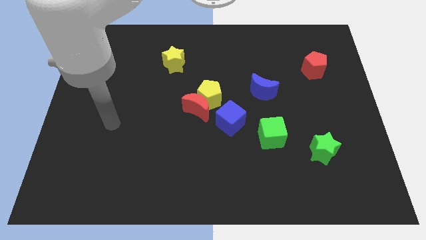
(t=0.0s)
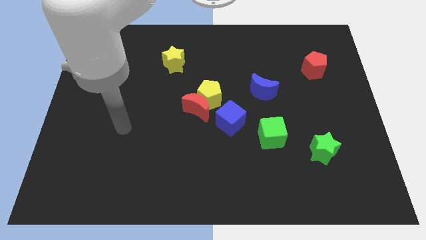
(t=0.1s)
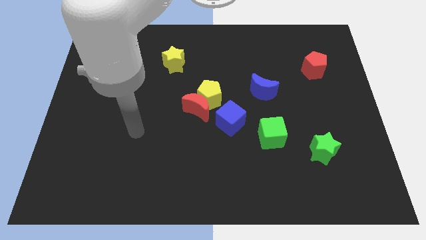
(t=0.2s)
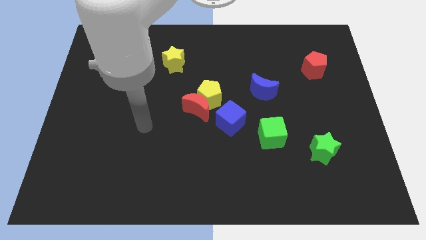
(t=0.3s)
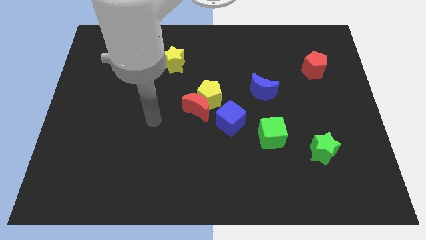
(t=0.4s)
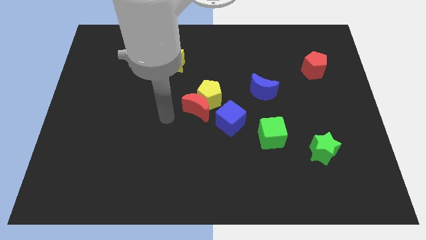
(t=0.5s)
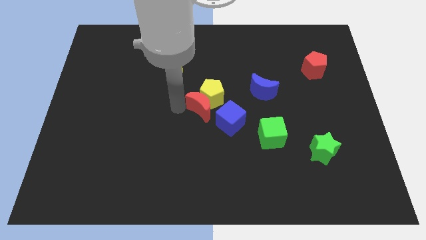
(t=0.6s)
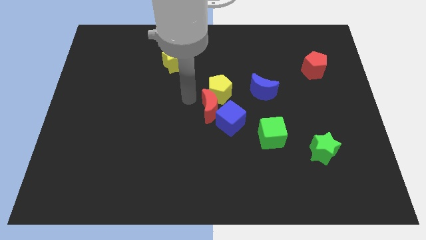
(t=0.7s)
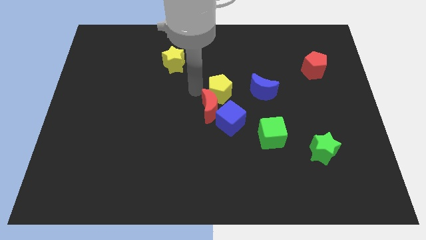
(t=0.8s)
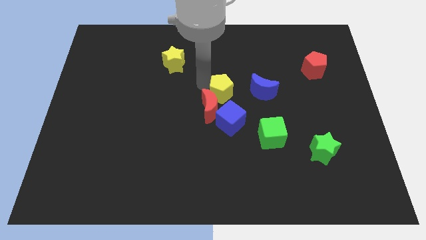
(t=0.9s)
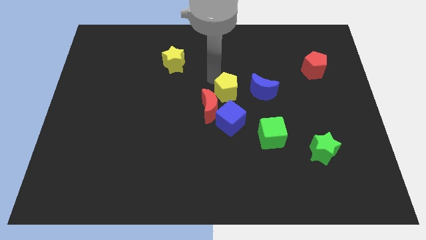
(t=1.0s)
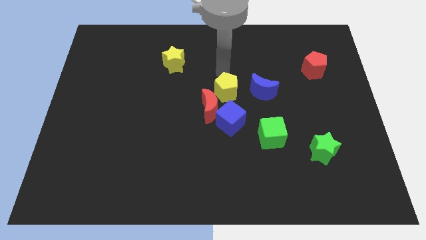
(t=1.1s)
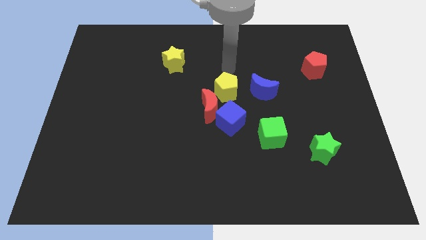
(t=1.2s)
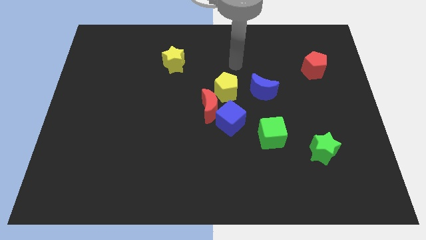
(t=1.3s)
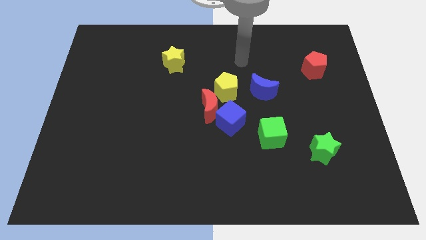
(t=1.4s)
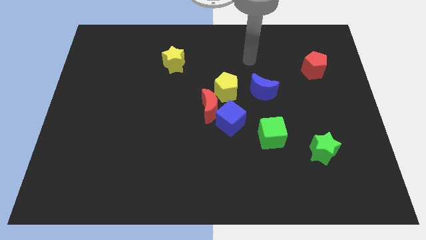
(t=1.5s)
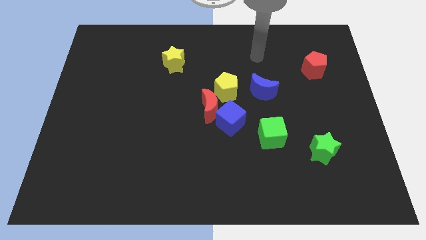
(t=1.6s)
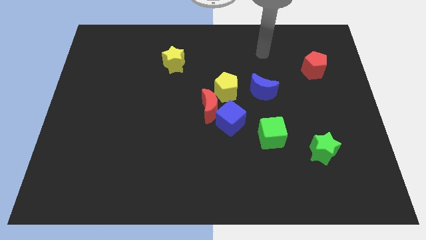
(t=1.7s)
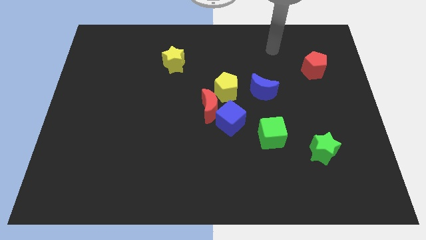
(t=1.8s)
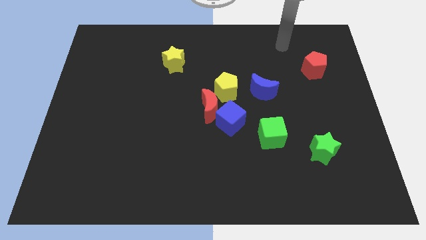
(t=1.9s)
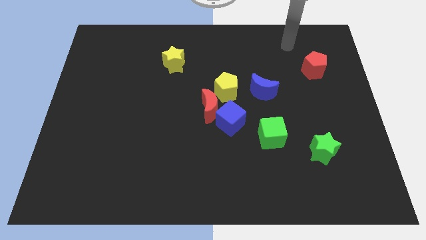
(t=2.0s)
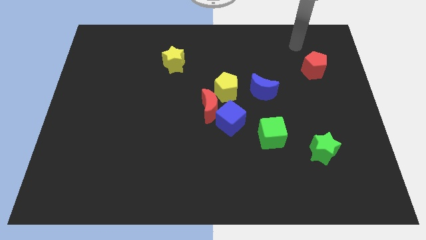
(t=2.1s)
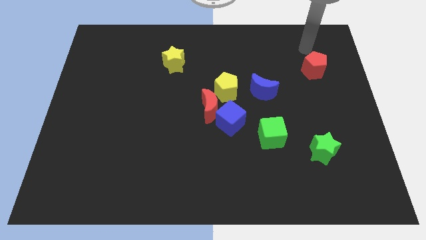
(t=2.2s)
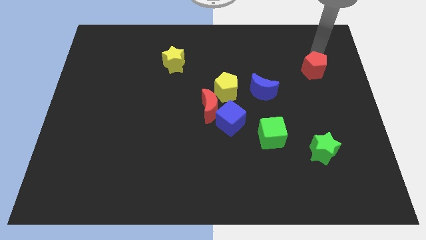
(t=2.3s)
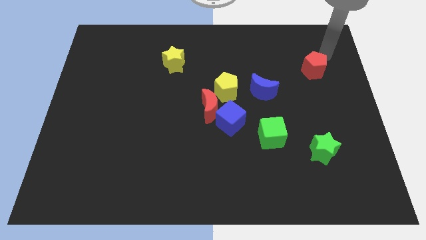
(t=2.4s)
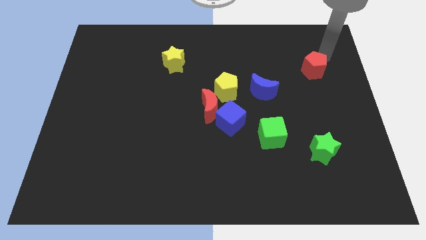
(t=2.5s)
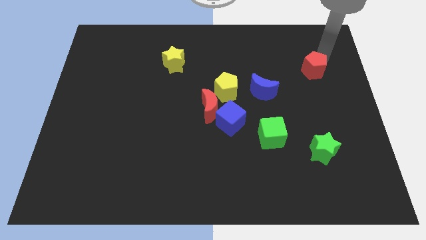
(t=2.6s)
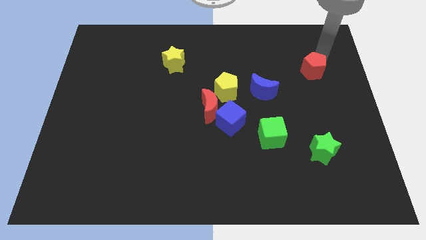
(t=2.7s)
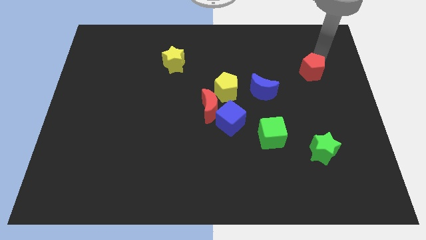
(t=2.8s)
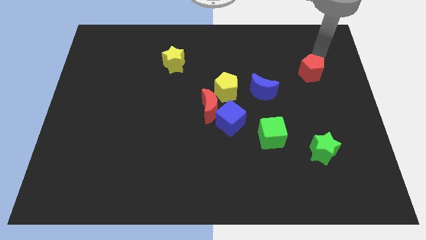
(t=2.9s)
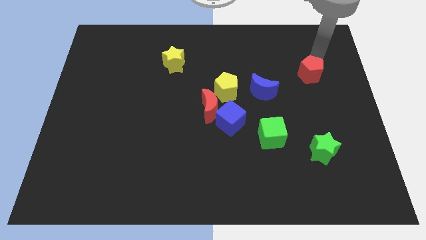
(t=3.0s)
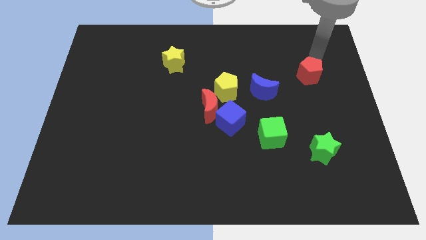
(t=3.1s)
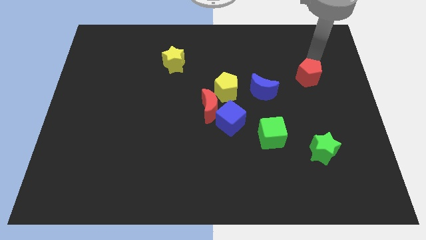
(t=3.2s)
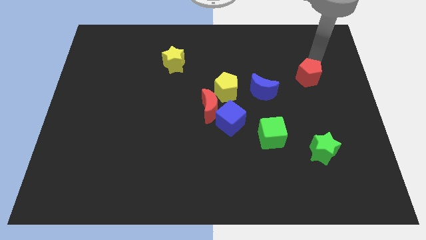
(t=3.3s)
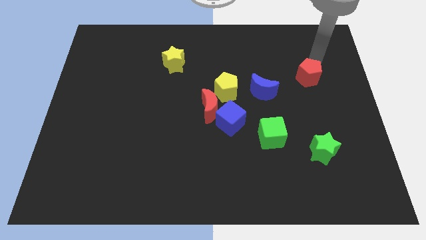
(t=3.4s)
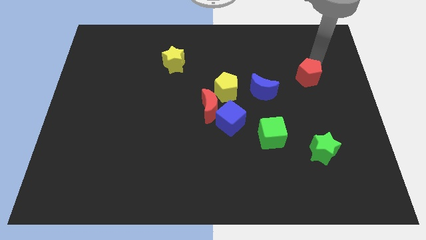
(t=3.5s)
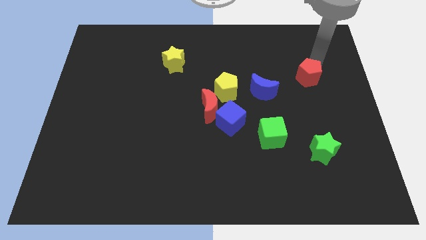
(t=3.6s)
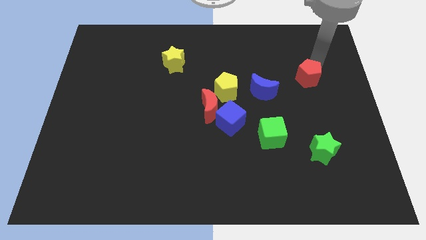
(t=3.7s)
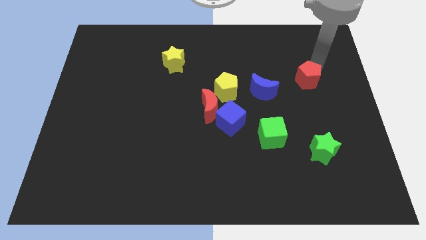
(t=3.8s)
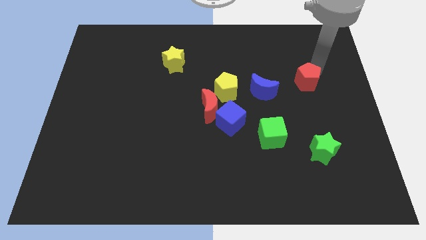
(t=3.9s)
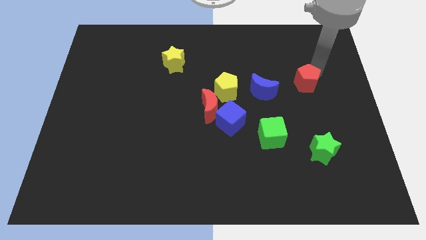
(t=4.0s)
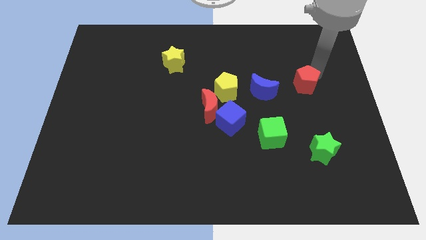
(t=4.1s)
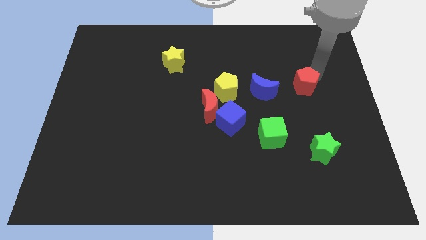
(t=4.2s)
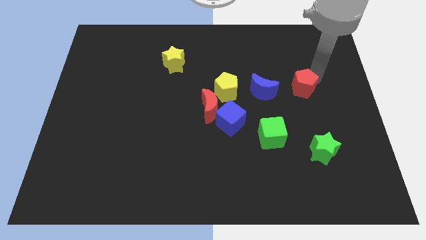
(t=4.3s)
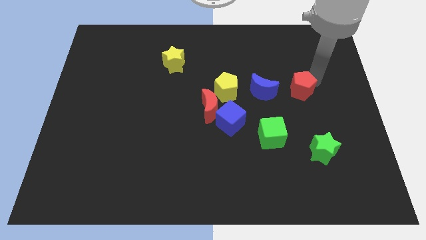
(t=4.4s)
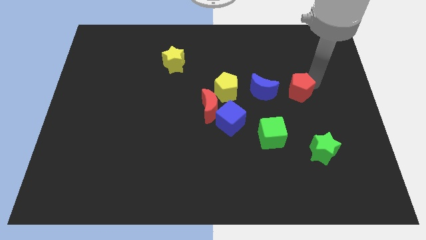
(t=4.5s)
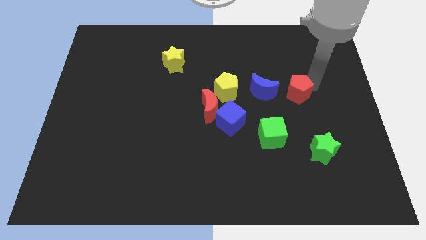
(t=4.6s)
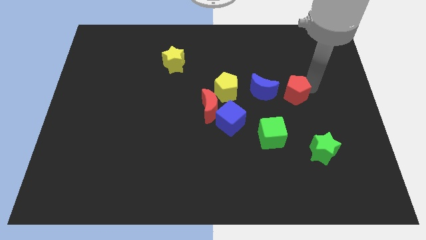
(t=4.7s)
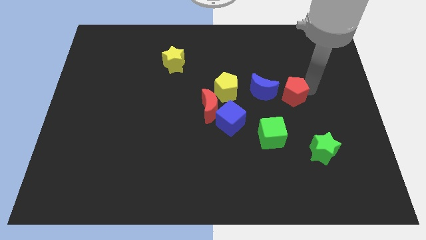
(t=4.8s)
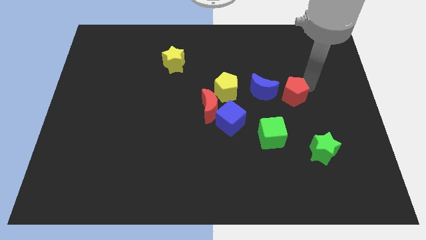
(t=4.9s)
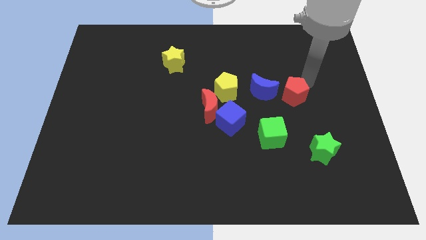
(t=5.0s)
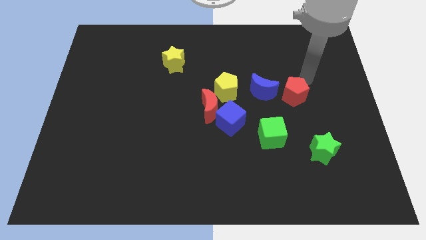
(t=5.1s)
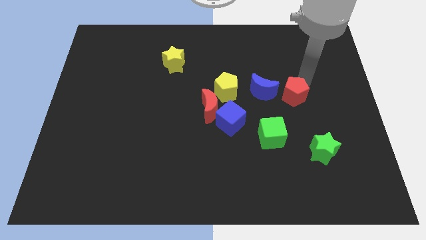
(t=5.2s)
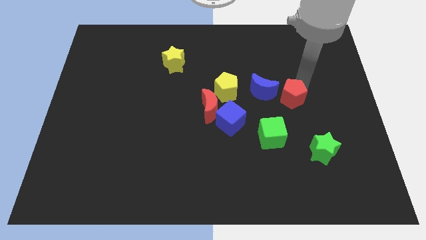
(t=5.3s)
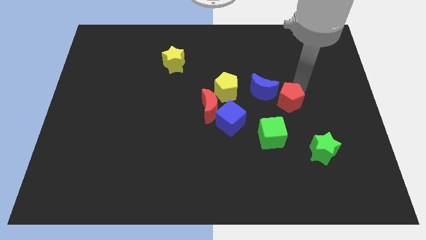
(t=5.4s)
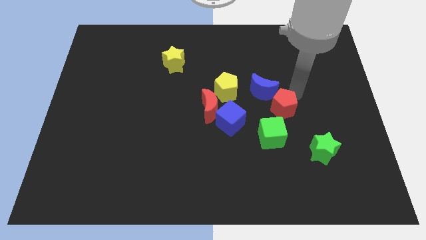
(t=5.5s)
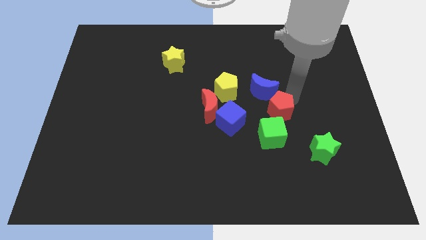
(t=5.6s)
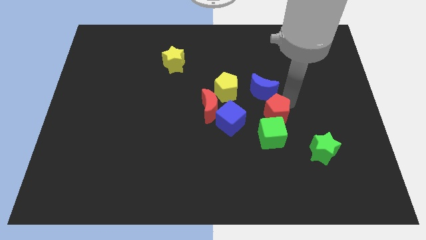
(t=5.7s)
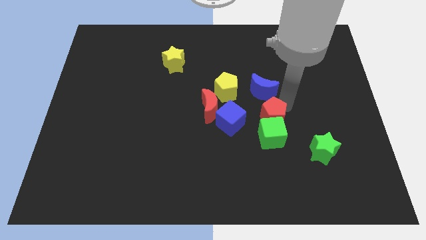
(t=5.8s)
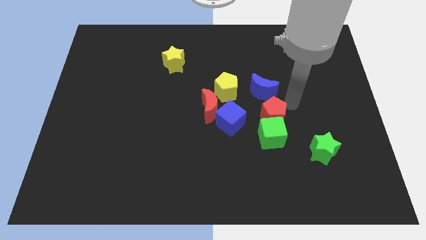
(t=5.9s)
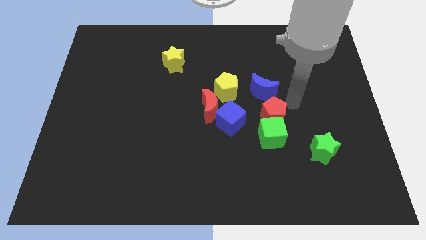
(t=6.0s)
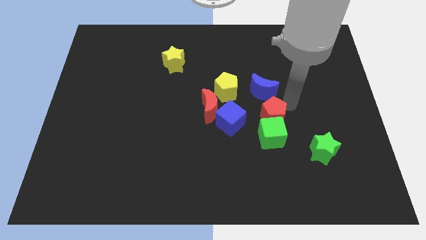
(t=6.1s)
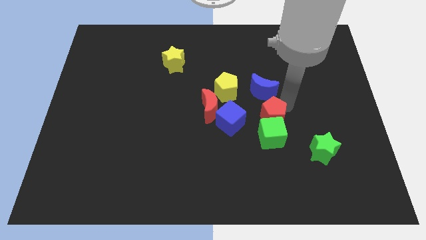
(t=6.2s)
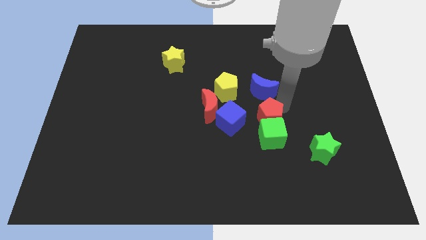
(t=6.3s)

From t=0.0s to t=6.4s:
move the red pentagon downwards and to the left

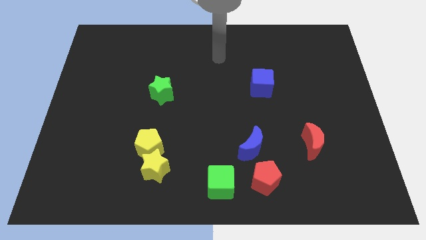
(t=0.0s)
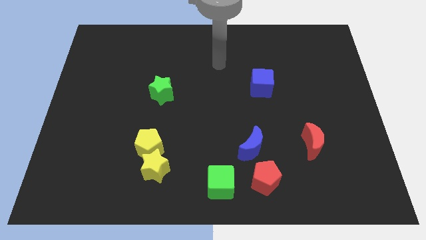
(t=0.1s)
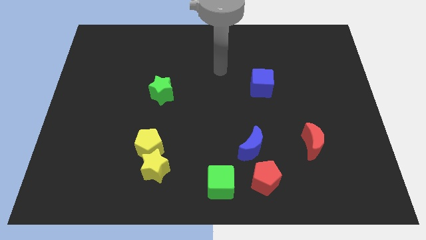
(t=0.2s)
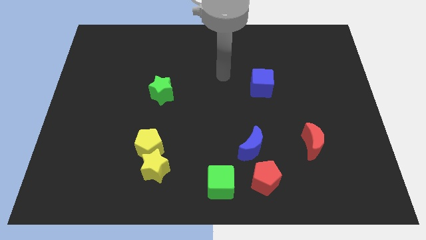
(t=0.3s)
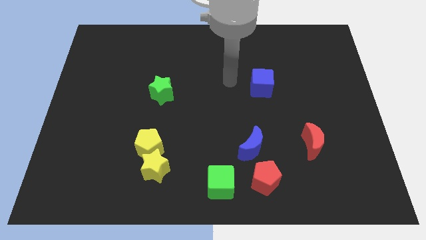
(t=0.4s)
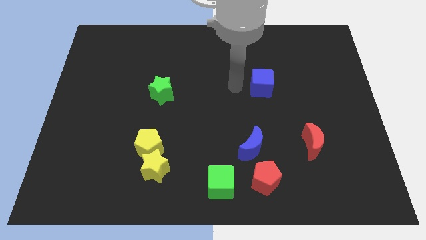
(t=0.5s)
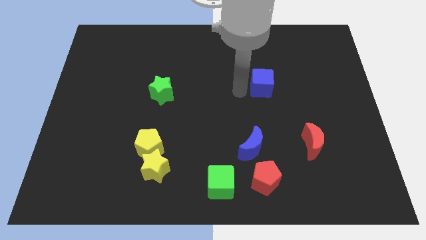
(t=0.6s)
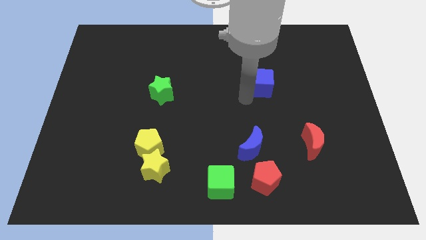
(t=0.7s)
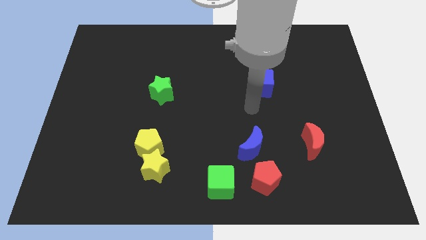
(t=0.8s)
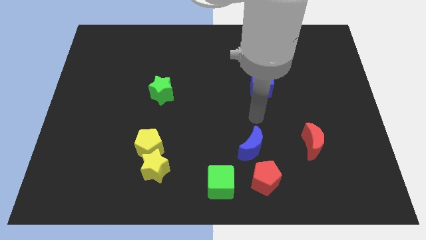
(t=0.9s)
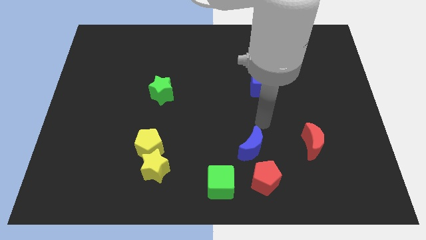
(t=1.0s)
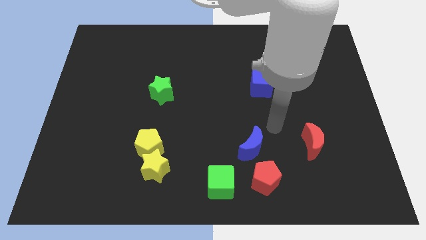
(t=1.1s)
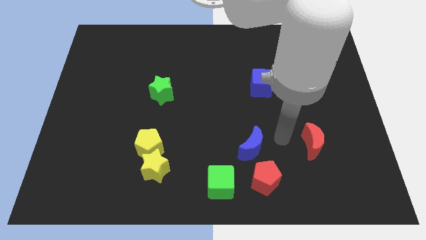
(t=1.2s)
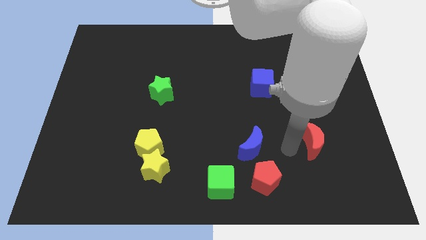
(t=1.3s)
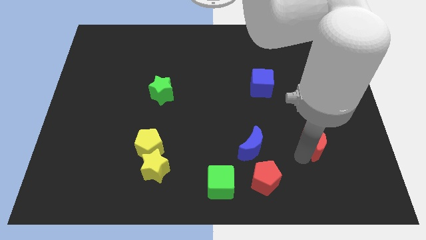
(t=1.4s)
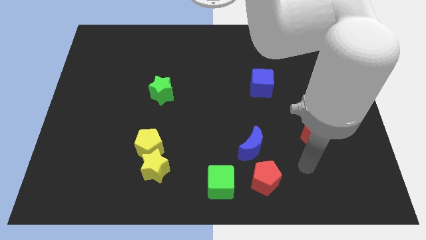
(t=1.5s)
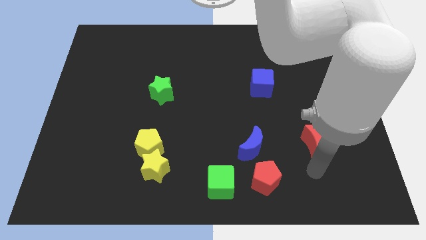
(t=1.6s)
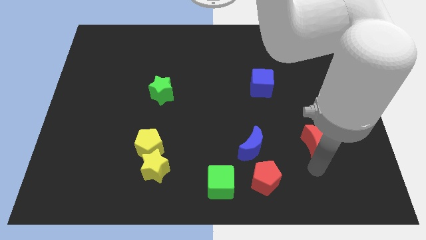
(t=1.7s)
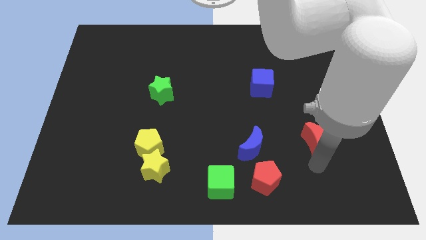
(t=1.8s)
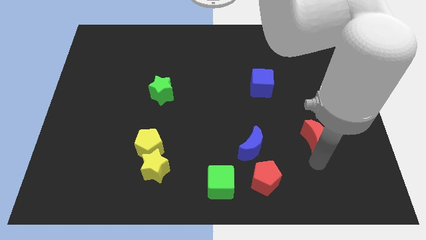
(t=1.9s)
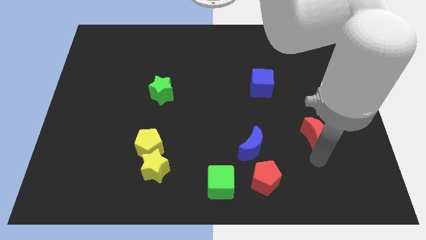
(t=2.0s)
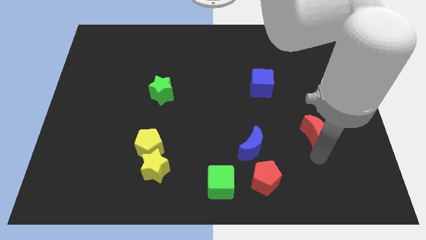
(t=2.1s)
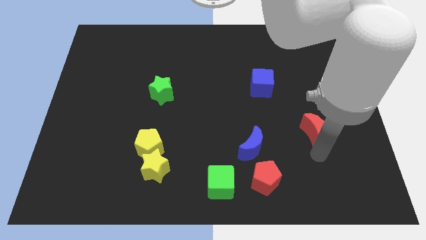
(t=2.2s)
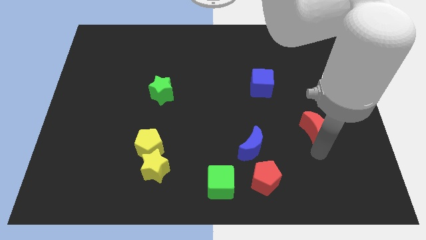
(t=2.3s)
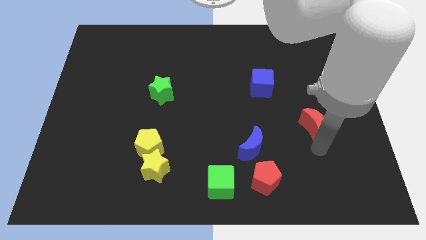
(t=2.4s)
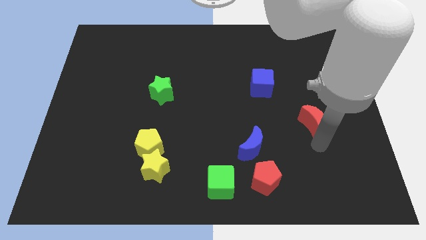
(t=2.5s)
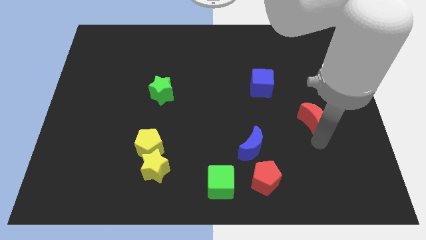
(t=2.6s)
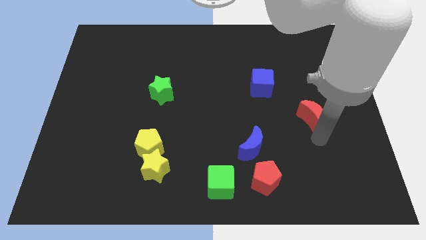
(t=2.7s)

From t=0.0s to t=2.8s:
slide the red moon a little bit upwards
